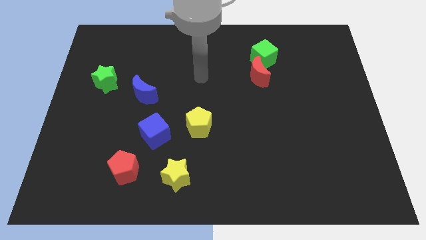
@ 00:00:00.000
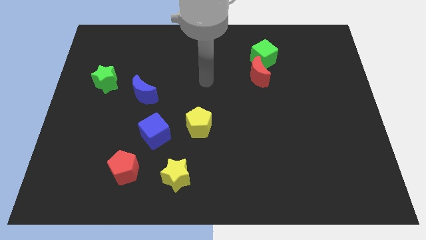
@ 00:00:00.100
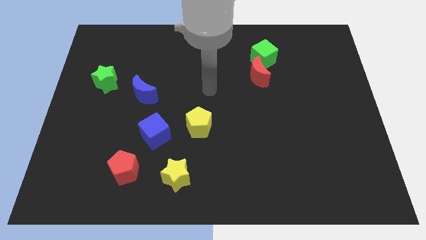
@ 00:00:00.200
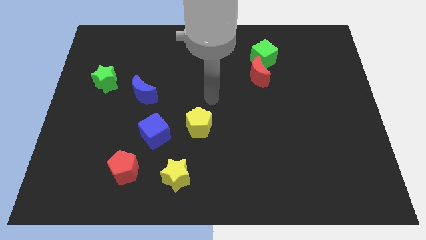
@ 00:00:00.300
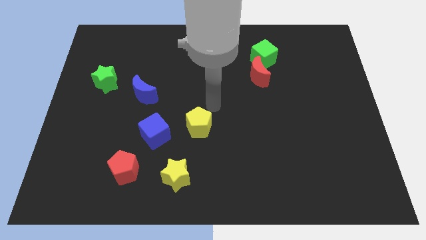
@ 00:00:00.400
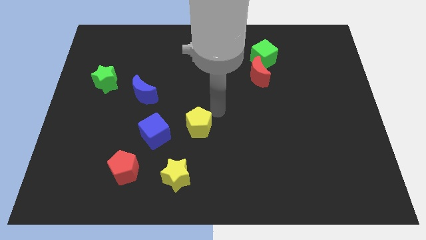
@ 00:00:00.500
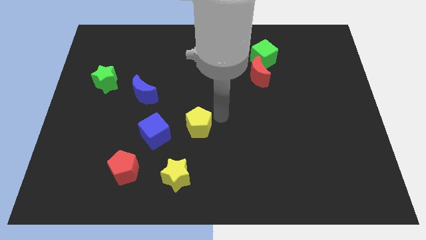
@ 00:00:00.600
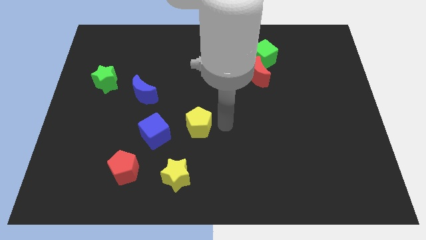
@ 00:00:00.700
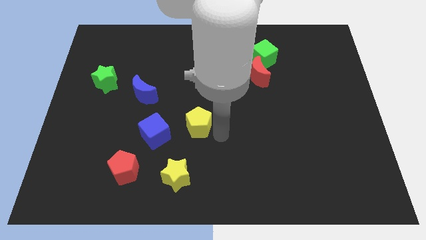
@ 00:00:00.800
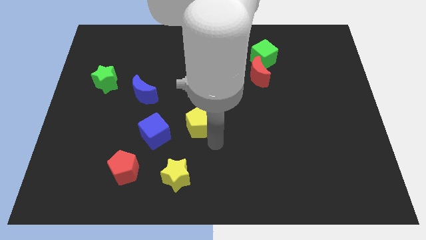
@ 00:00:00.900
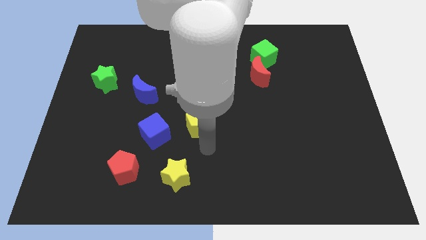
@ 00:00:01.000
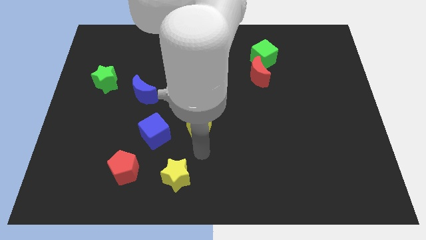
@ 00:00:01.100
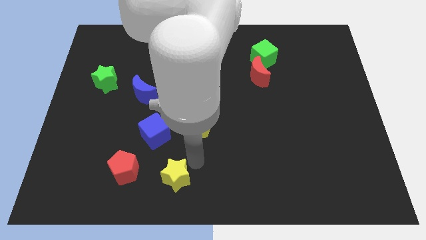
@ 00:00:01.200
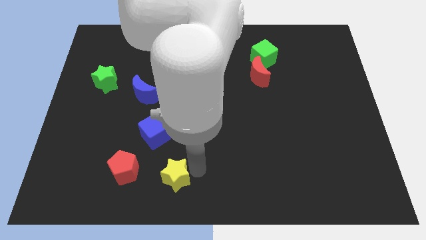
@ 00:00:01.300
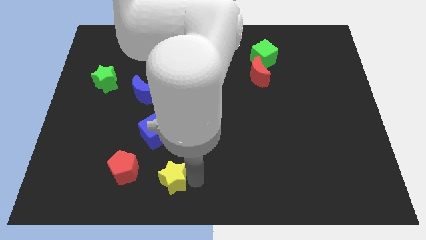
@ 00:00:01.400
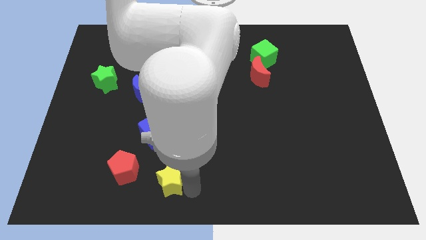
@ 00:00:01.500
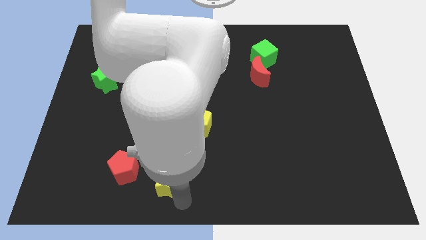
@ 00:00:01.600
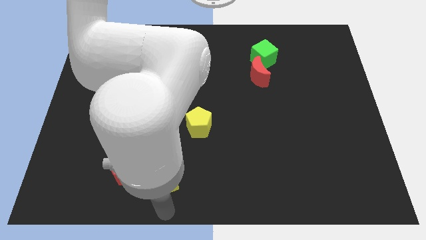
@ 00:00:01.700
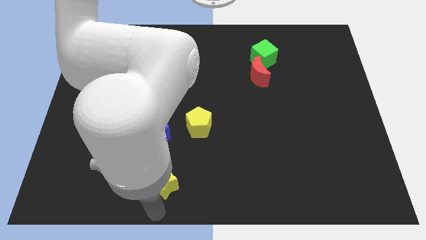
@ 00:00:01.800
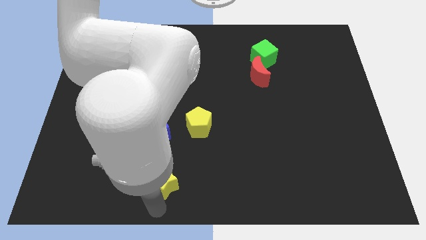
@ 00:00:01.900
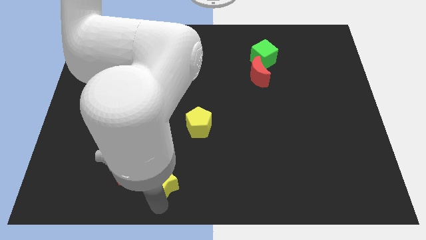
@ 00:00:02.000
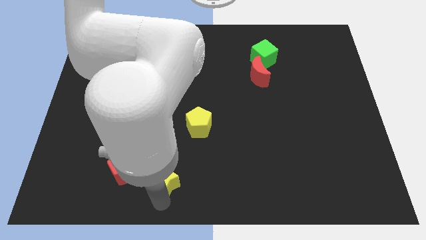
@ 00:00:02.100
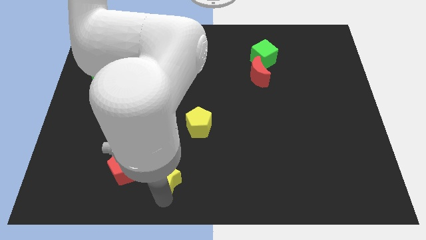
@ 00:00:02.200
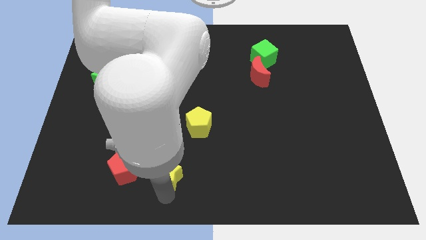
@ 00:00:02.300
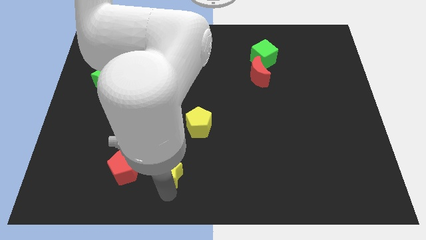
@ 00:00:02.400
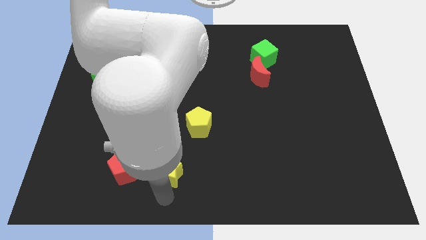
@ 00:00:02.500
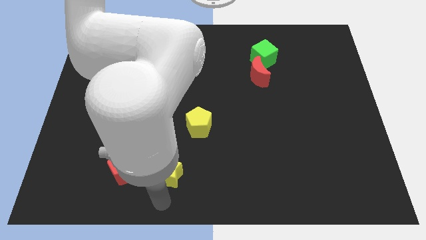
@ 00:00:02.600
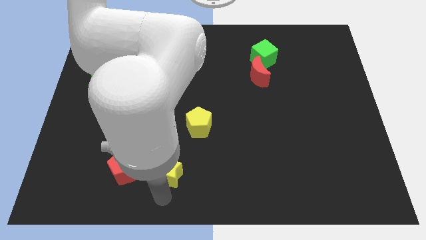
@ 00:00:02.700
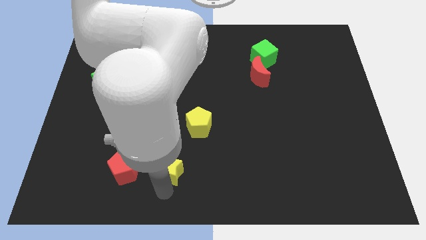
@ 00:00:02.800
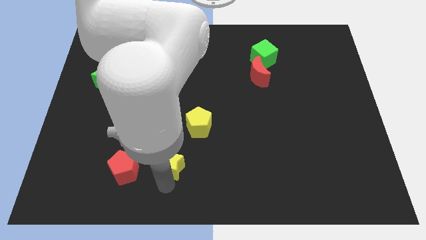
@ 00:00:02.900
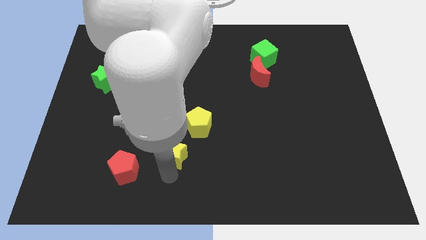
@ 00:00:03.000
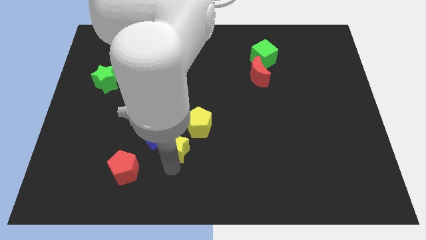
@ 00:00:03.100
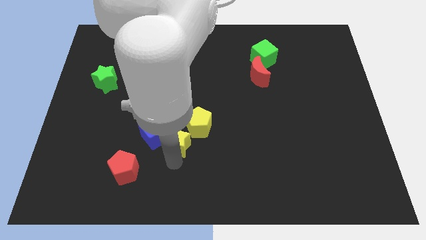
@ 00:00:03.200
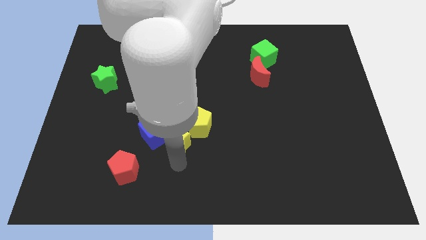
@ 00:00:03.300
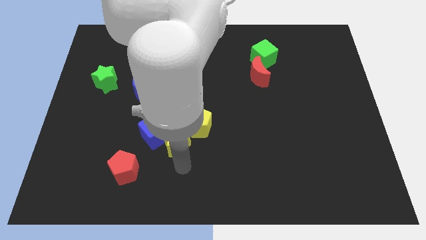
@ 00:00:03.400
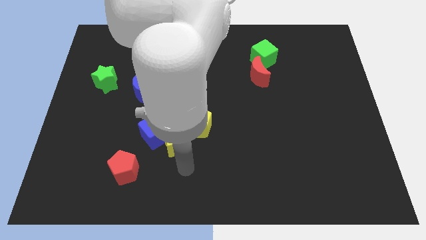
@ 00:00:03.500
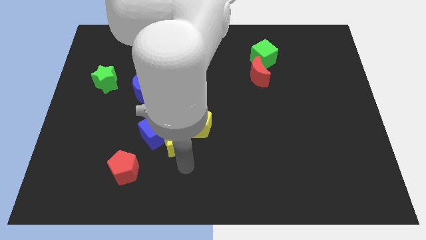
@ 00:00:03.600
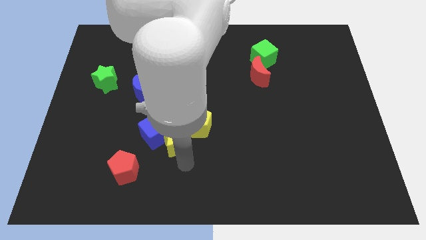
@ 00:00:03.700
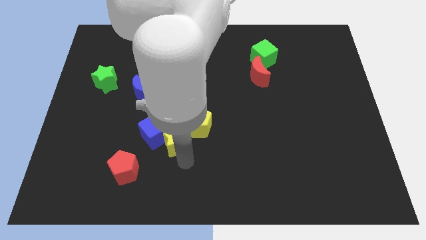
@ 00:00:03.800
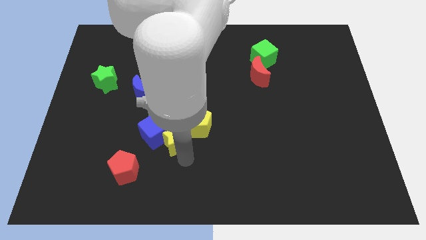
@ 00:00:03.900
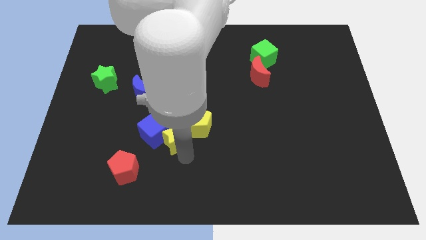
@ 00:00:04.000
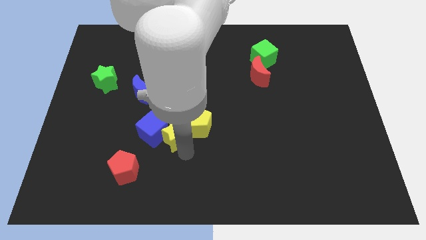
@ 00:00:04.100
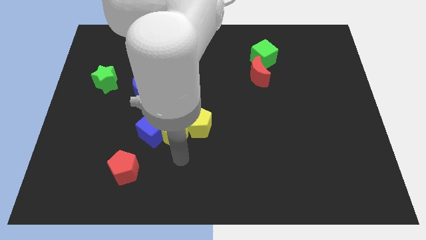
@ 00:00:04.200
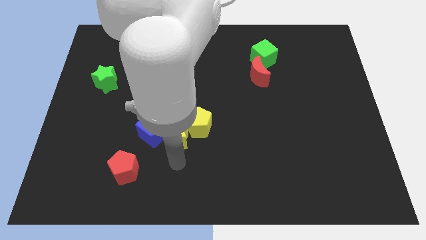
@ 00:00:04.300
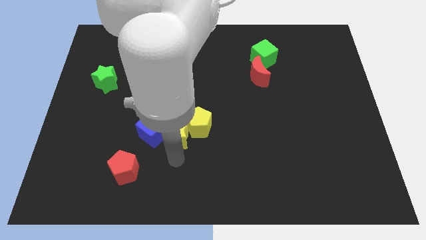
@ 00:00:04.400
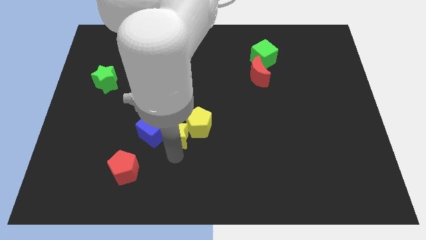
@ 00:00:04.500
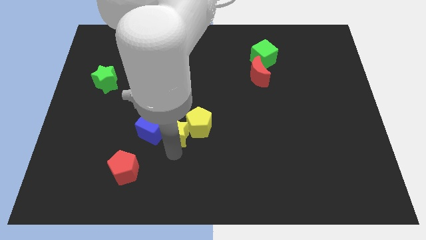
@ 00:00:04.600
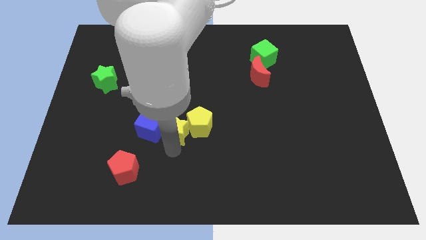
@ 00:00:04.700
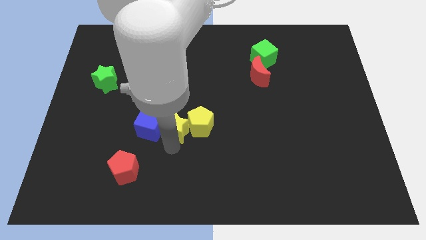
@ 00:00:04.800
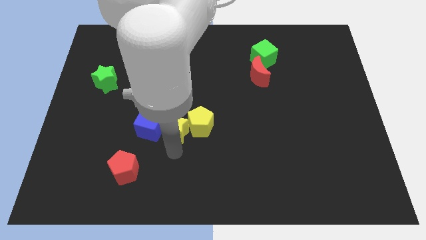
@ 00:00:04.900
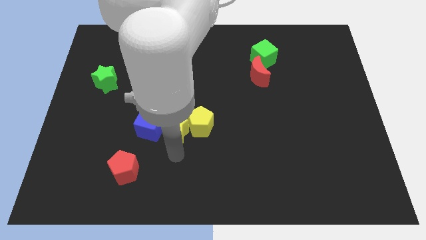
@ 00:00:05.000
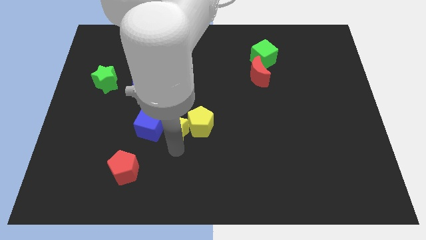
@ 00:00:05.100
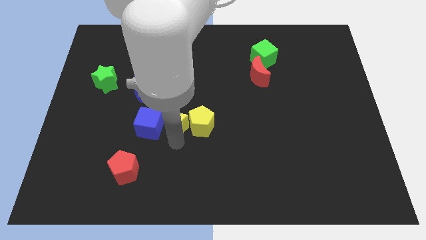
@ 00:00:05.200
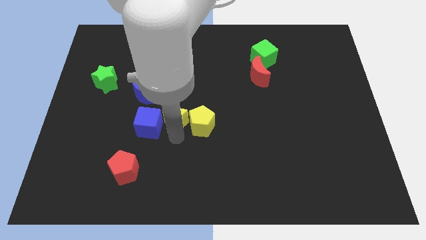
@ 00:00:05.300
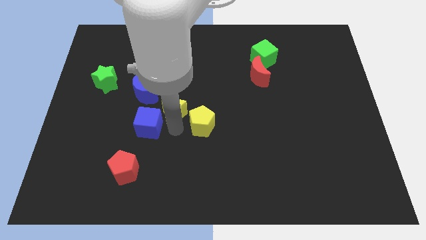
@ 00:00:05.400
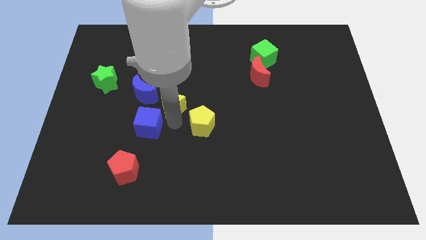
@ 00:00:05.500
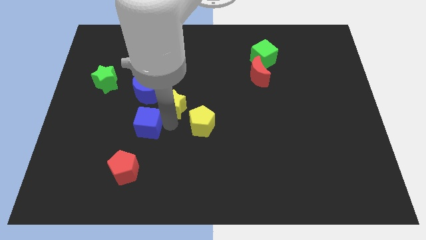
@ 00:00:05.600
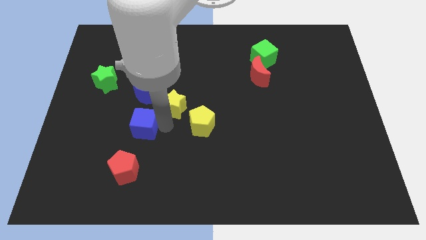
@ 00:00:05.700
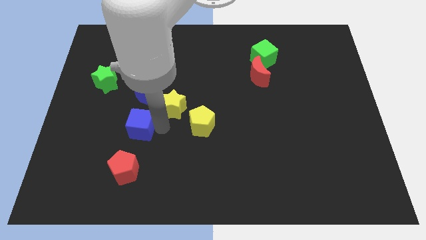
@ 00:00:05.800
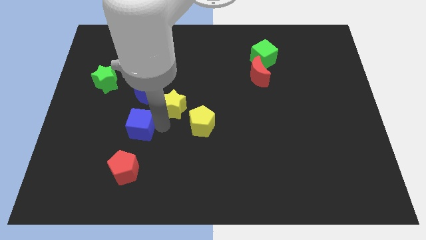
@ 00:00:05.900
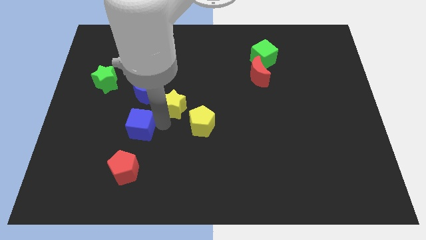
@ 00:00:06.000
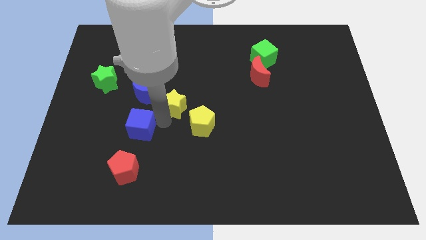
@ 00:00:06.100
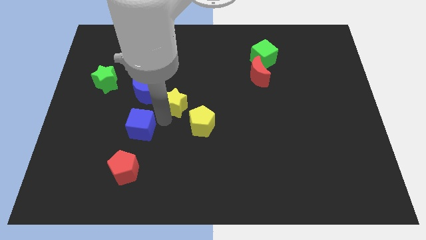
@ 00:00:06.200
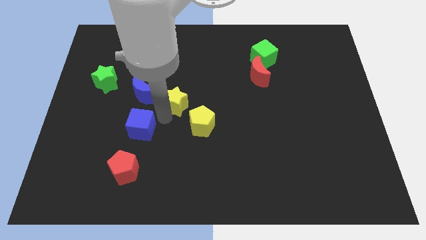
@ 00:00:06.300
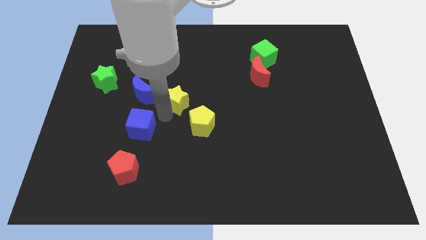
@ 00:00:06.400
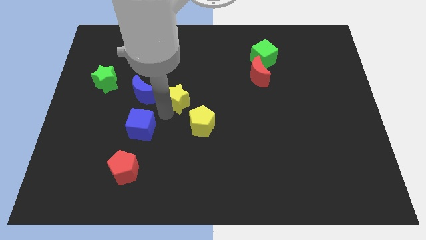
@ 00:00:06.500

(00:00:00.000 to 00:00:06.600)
move the yellow star upwards

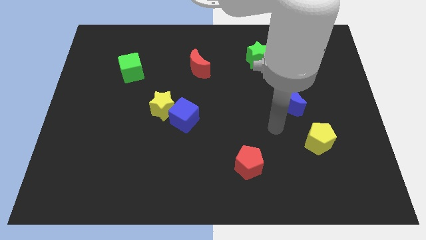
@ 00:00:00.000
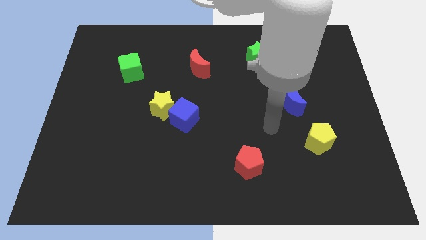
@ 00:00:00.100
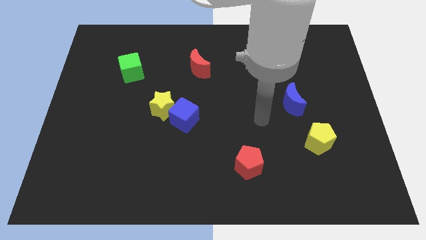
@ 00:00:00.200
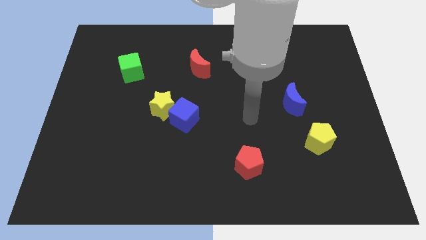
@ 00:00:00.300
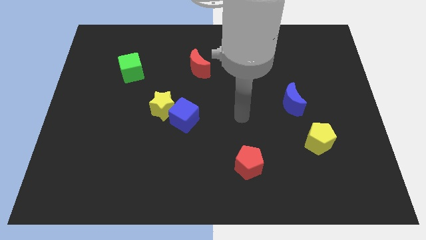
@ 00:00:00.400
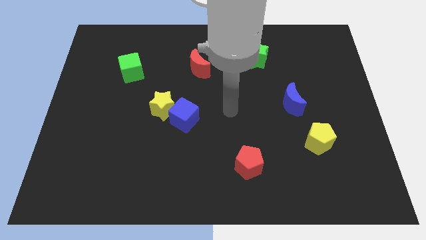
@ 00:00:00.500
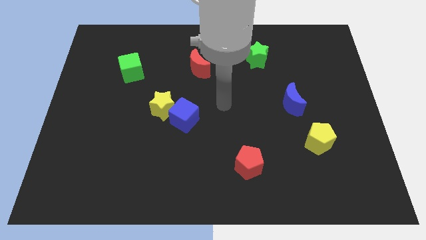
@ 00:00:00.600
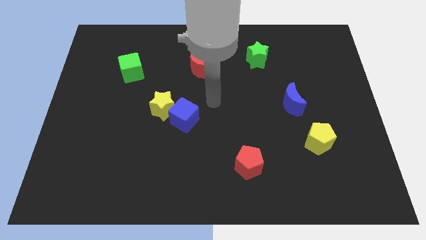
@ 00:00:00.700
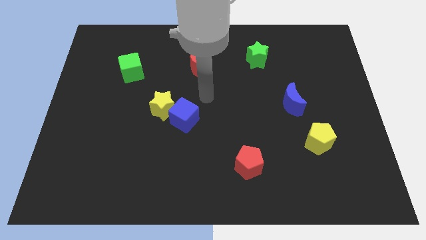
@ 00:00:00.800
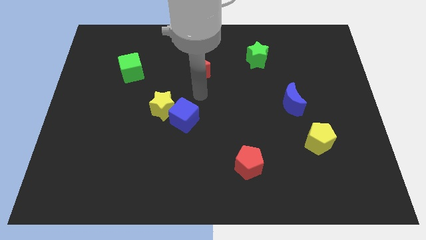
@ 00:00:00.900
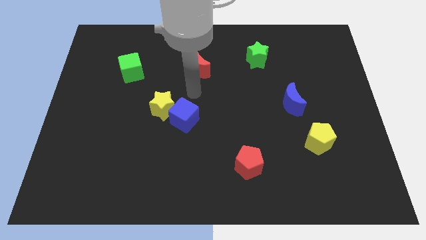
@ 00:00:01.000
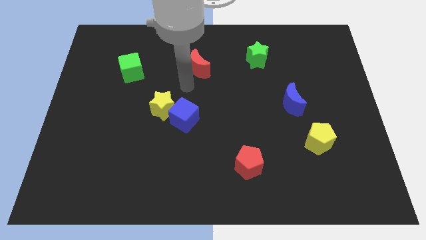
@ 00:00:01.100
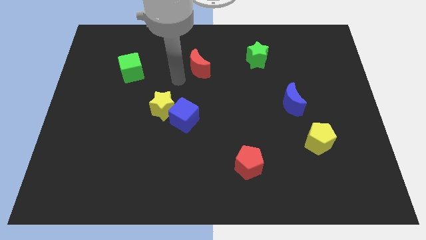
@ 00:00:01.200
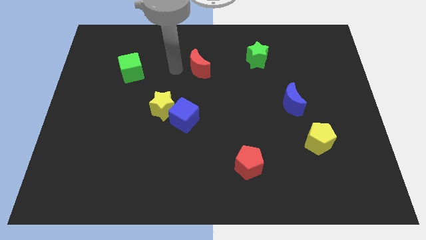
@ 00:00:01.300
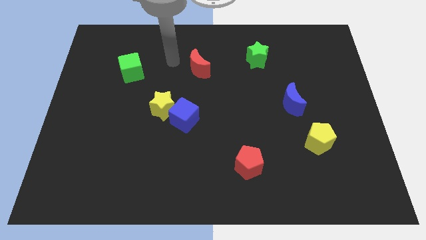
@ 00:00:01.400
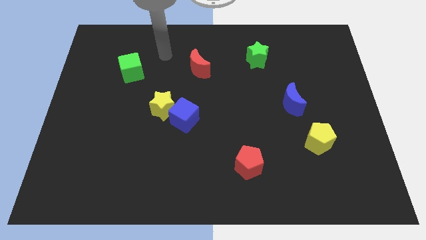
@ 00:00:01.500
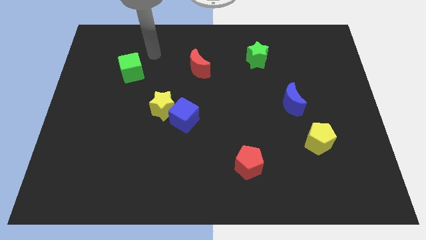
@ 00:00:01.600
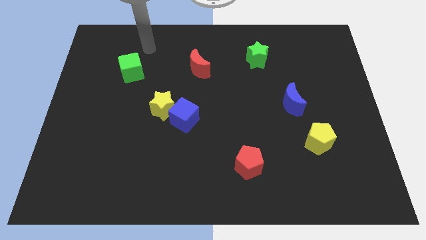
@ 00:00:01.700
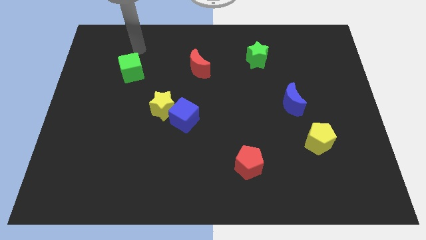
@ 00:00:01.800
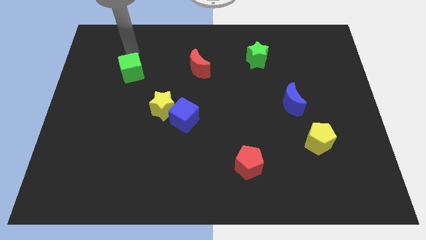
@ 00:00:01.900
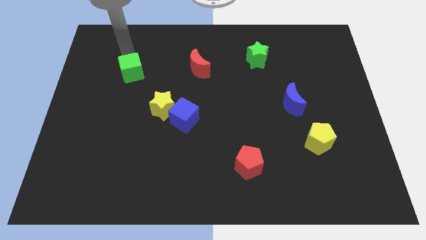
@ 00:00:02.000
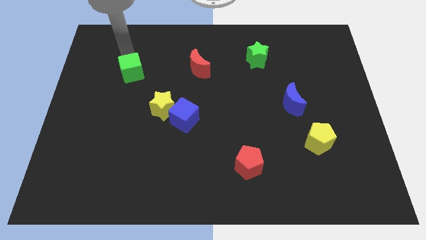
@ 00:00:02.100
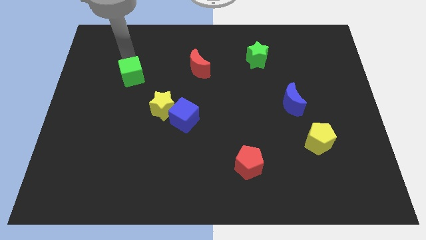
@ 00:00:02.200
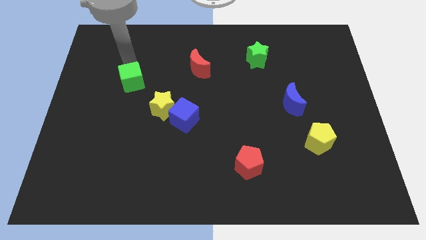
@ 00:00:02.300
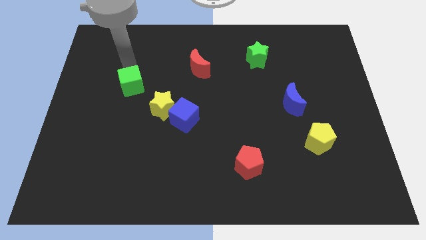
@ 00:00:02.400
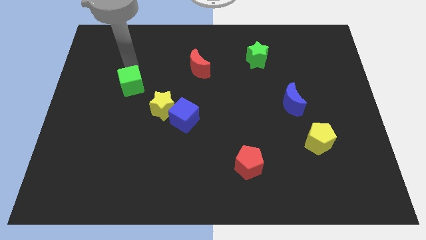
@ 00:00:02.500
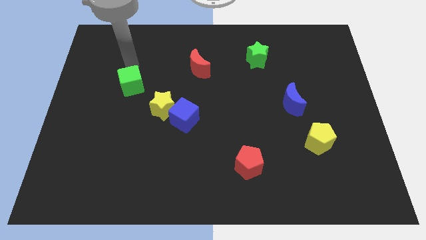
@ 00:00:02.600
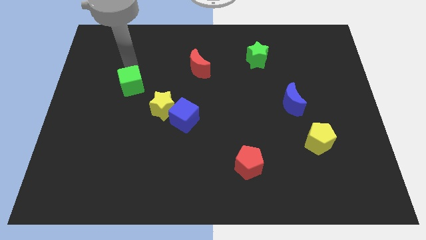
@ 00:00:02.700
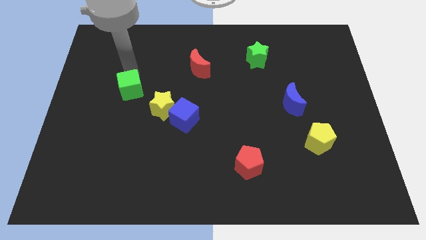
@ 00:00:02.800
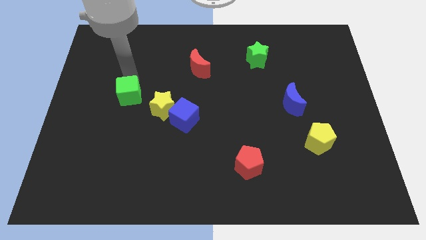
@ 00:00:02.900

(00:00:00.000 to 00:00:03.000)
slightly move the green cube down
